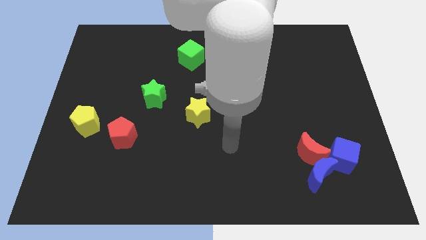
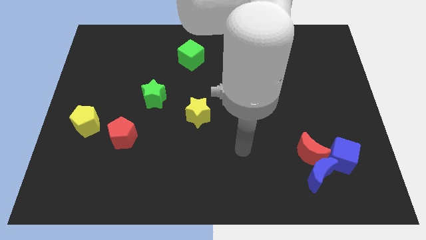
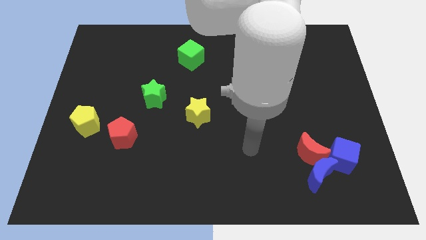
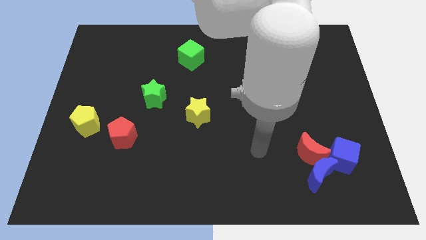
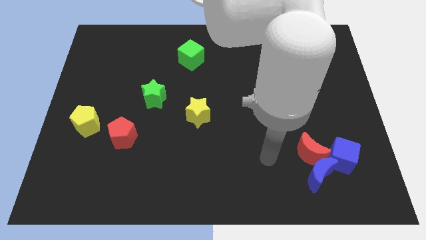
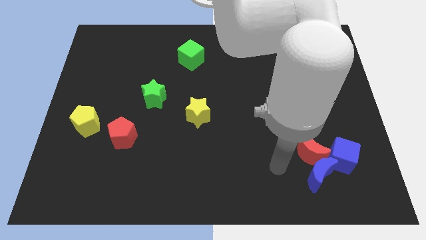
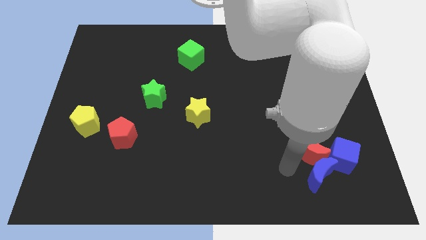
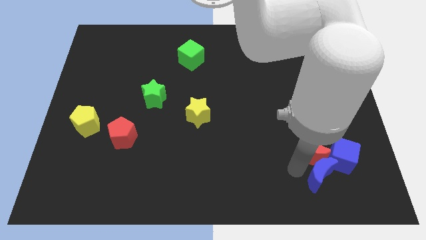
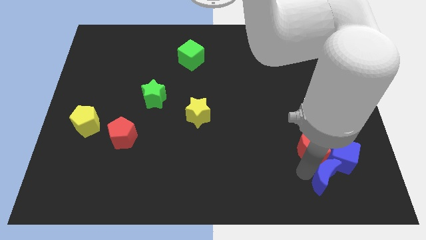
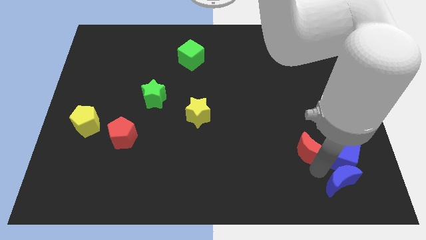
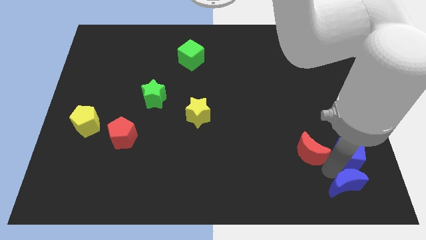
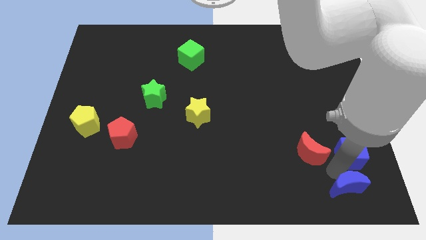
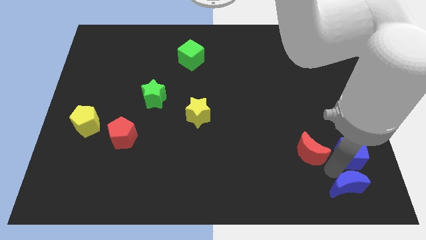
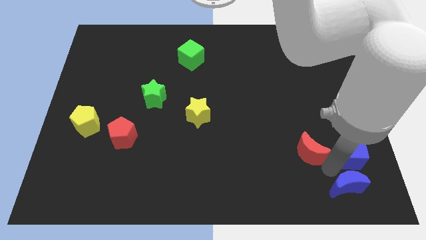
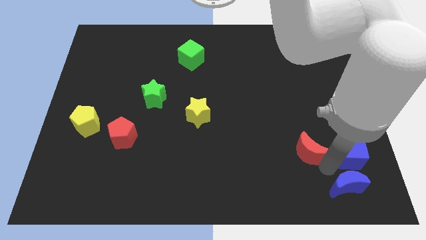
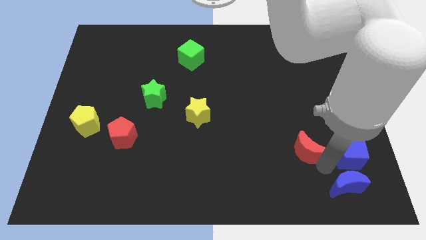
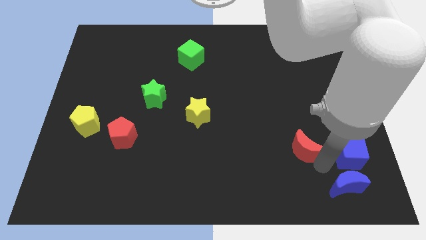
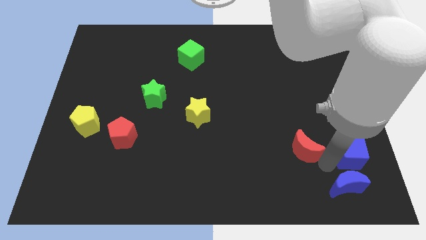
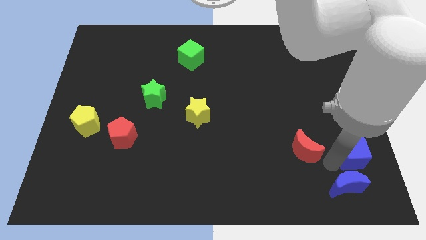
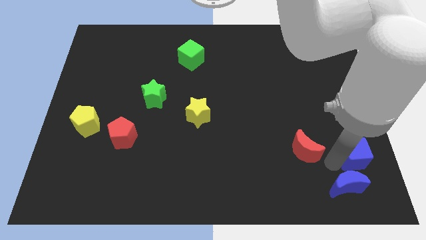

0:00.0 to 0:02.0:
pull the red moon apart from the blue moon and blue cube

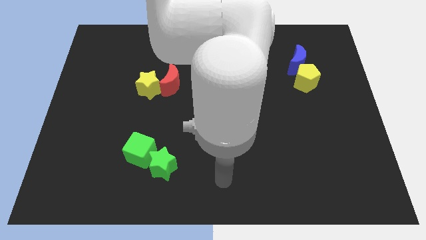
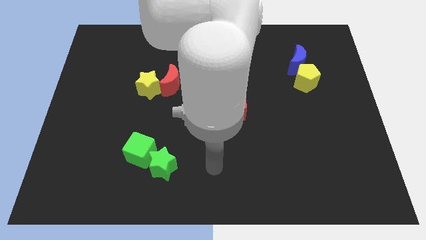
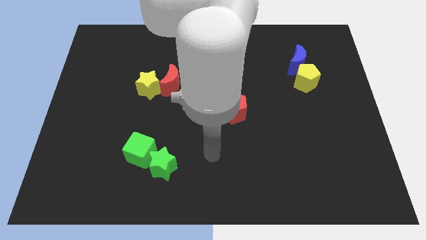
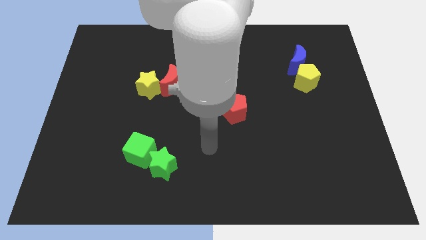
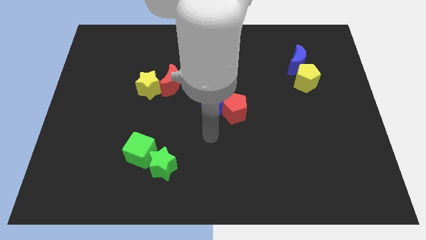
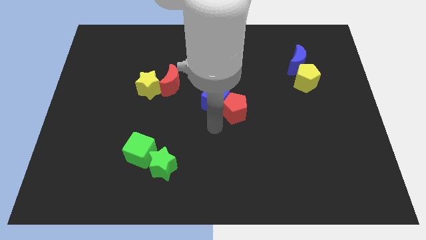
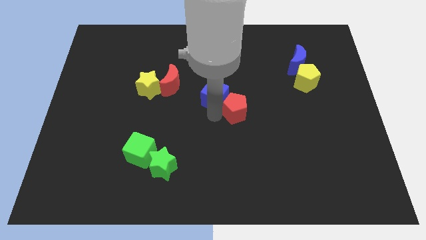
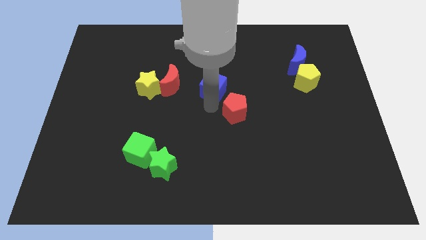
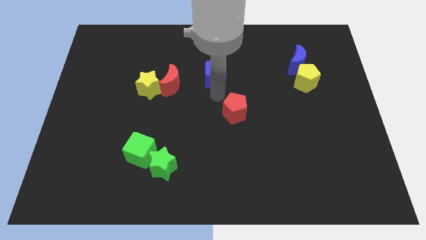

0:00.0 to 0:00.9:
pull the red pentagon apart from the blue cube

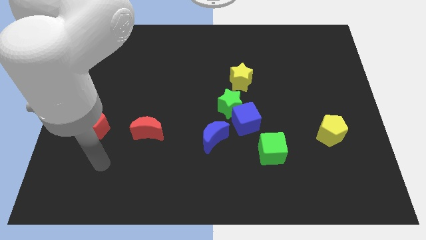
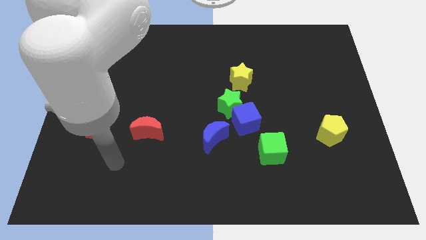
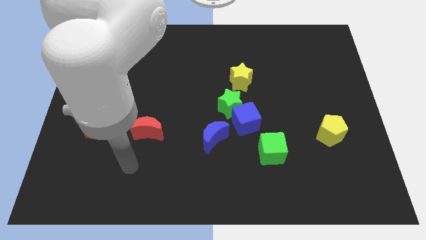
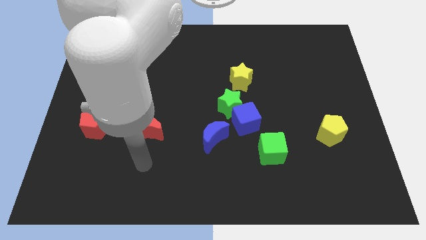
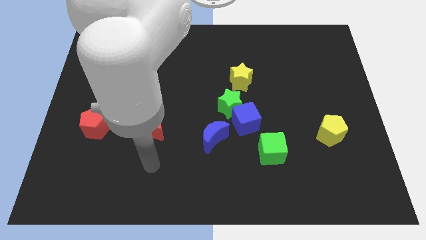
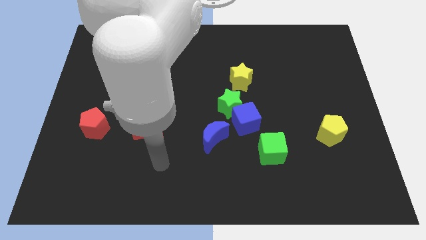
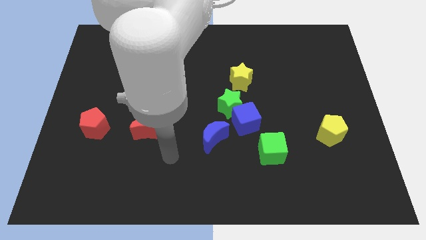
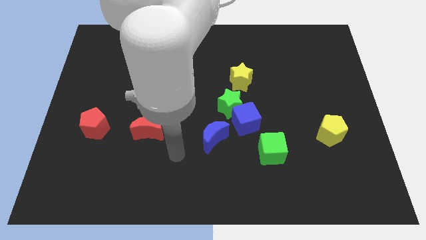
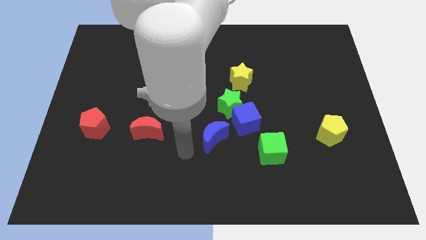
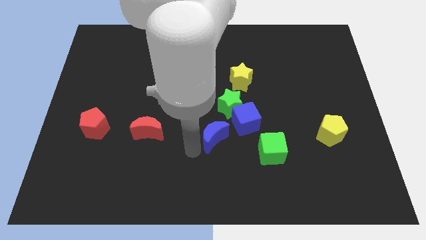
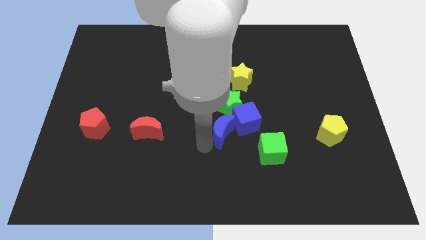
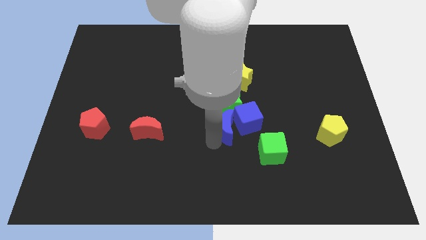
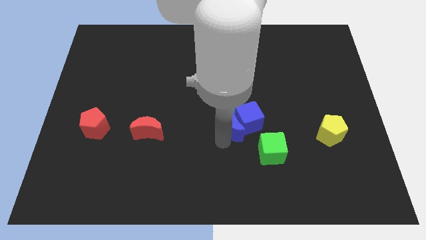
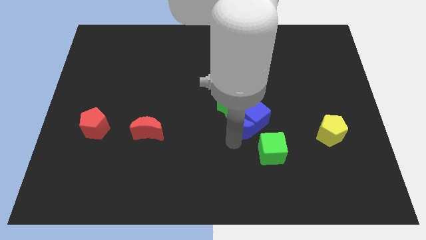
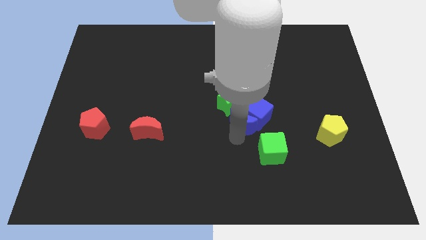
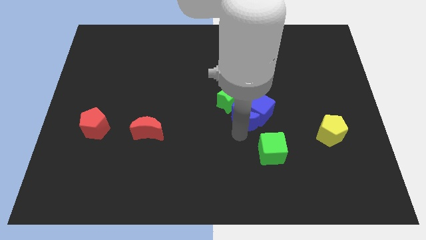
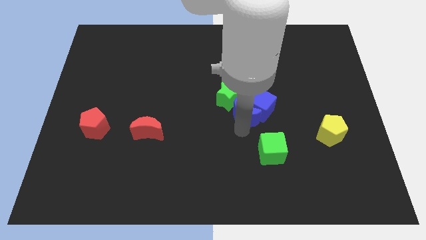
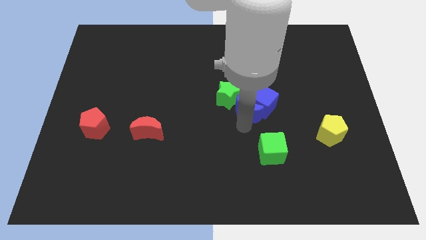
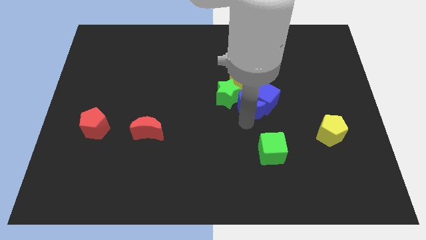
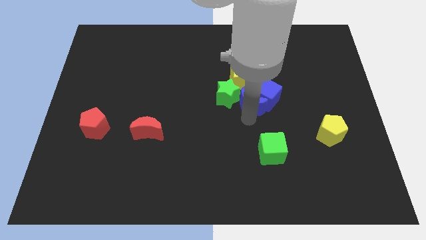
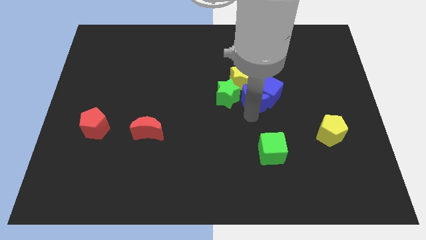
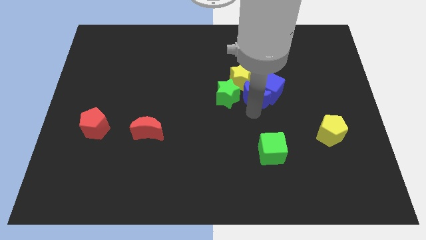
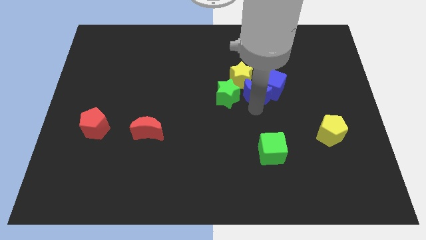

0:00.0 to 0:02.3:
separate the blue cube from the group

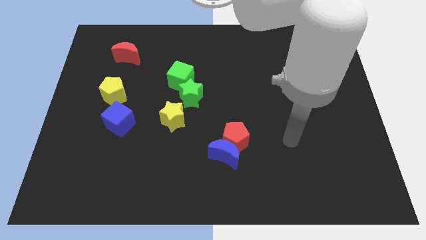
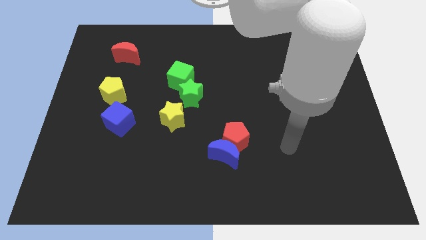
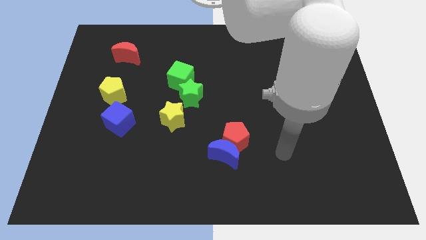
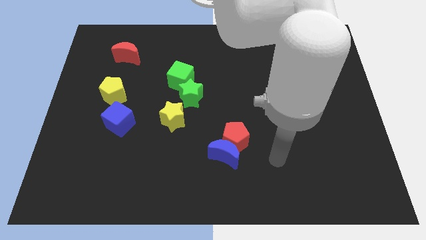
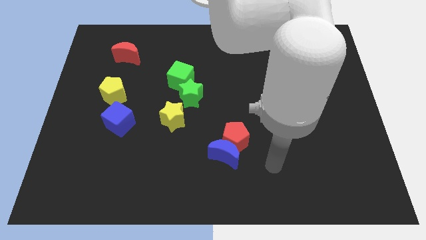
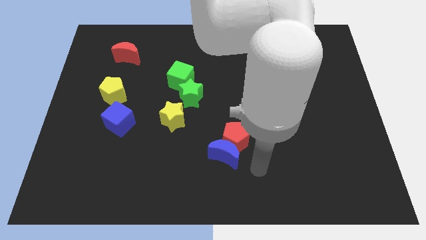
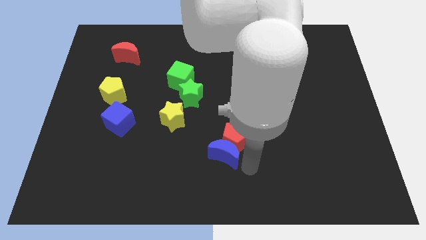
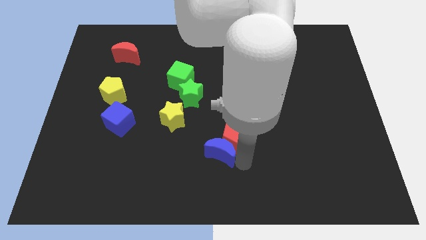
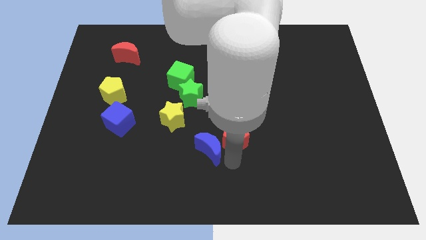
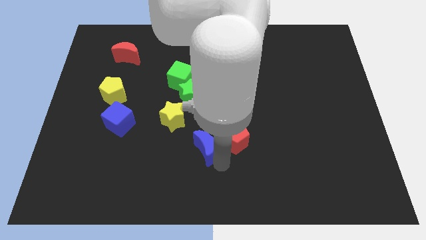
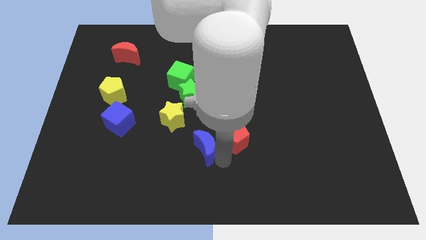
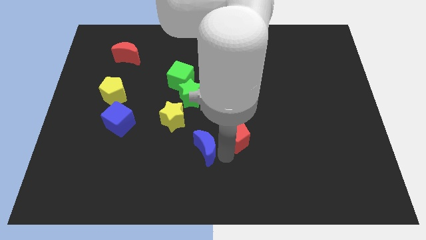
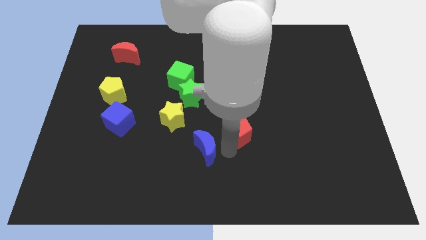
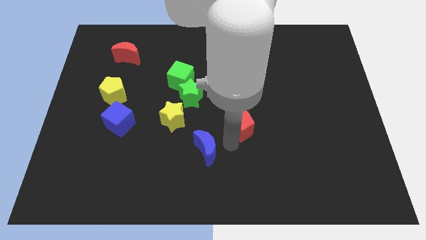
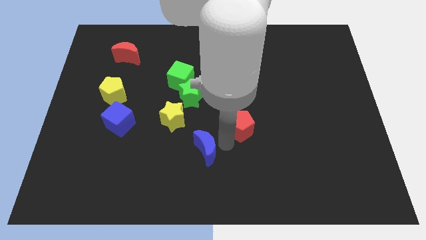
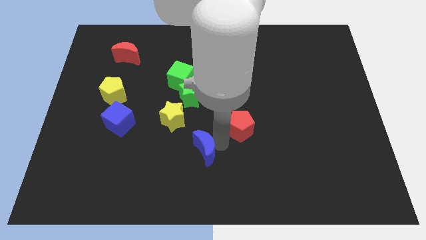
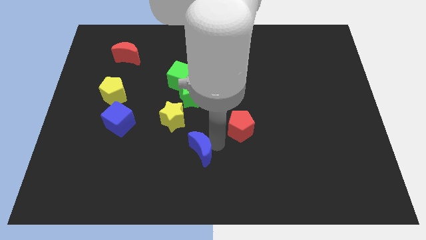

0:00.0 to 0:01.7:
pull the red pentagon apart from the blue moon

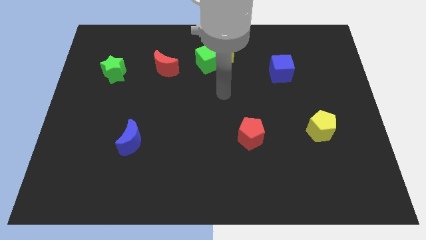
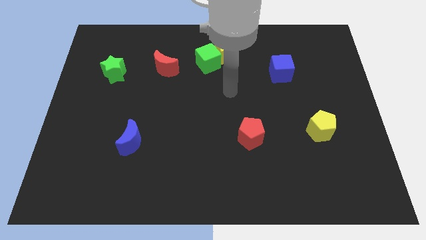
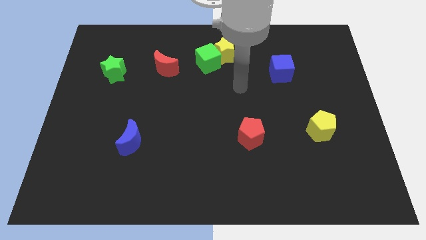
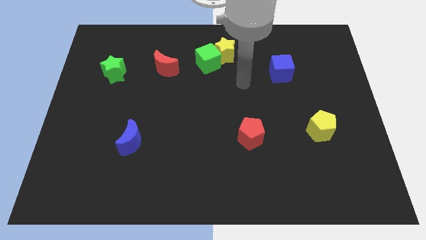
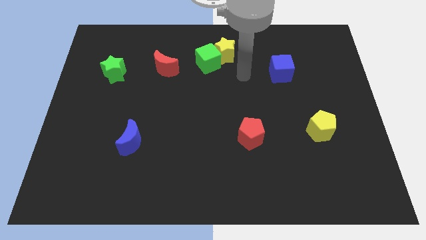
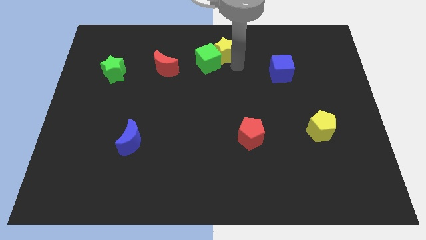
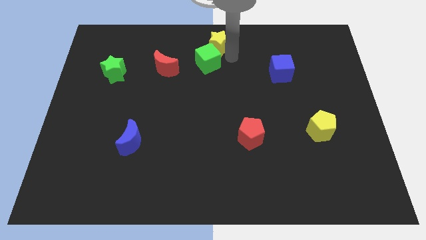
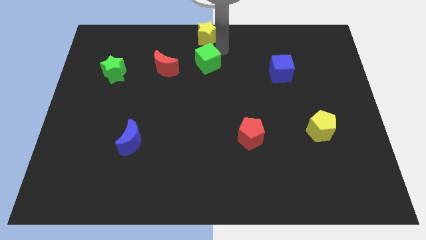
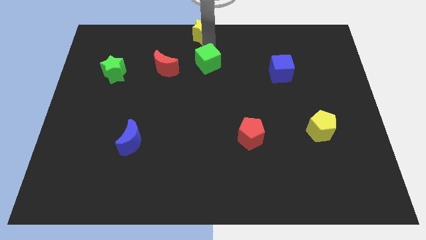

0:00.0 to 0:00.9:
move the green cube away from the yellow star

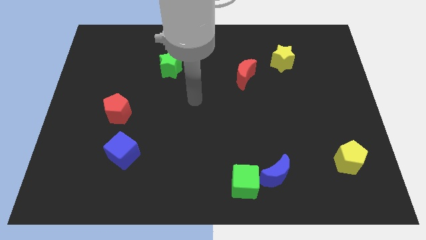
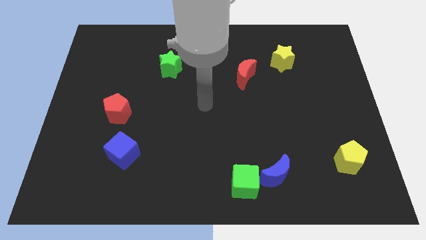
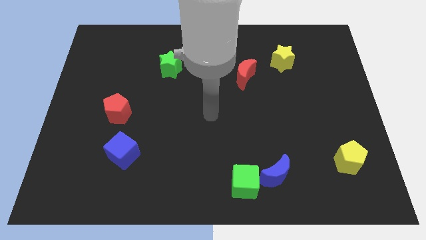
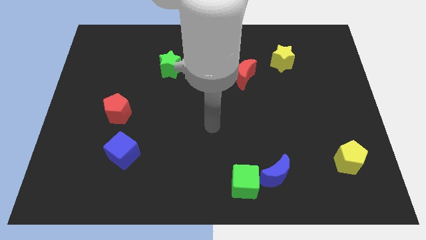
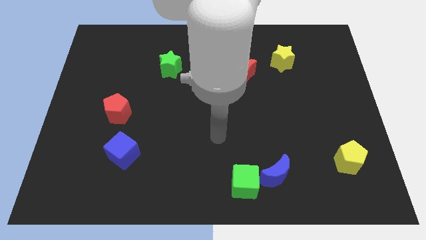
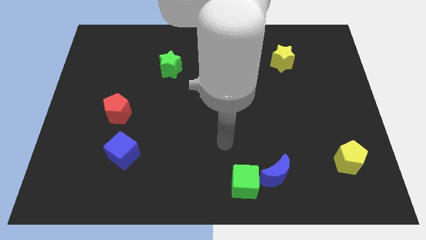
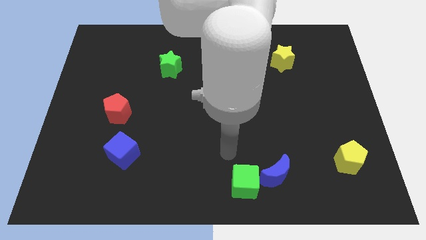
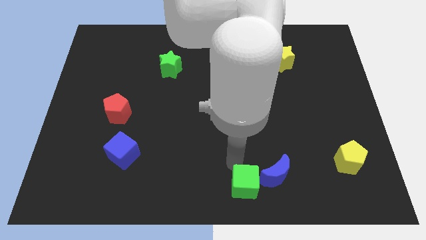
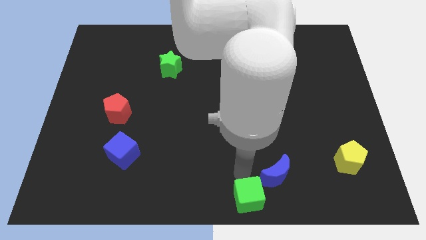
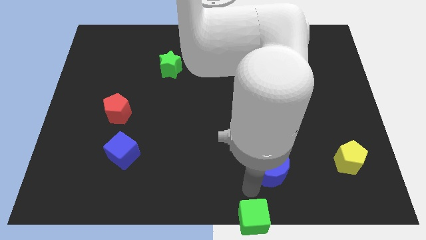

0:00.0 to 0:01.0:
pull the blue moon apart from the green cube

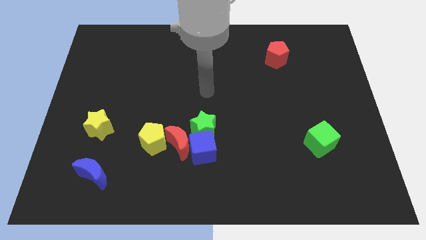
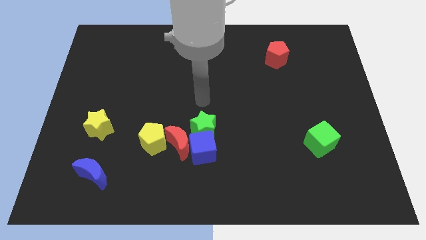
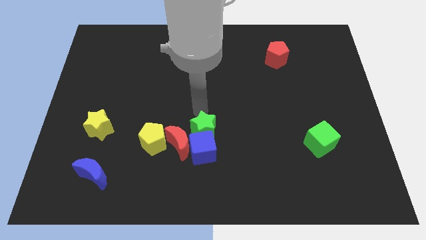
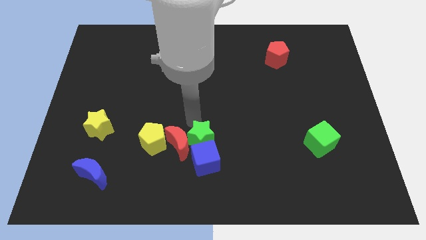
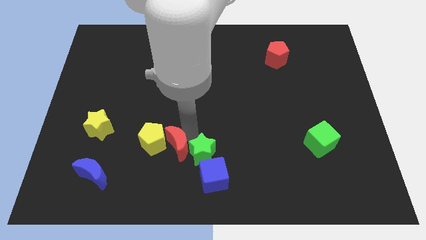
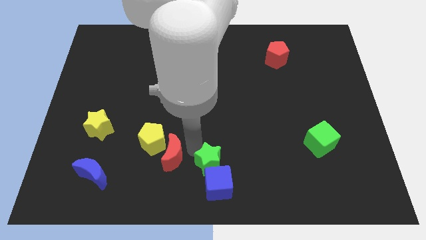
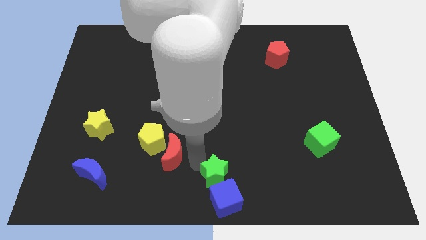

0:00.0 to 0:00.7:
separate the blue cube from the green star and red moon

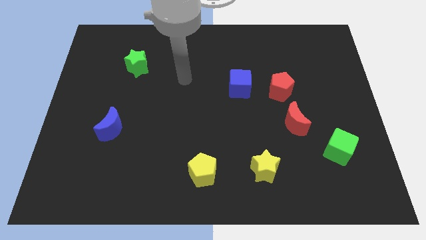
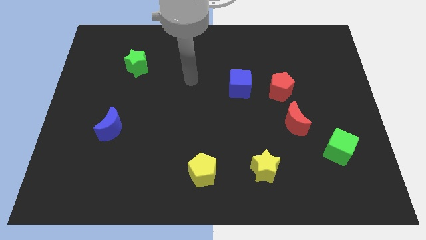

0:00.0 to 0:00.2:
separate the red moon from the red pentagon
